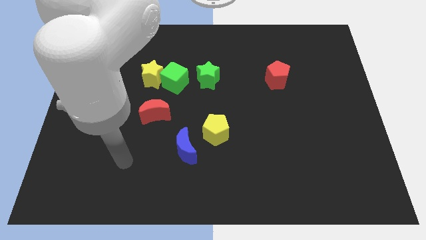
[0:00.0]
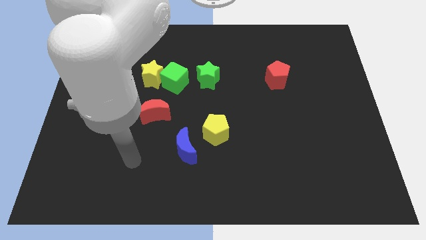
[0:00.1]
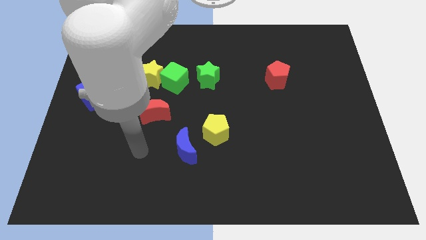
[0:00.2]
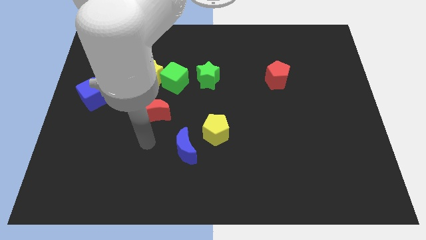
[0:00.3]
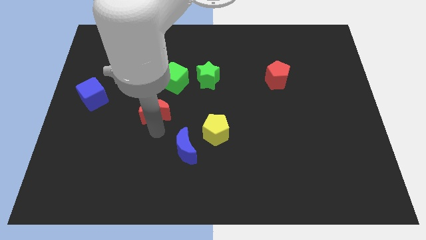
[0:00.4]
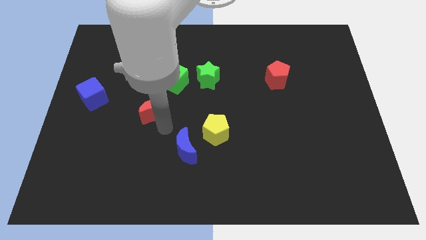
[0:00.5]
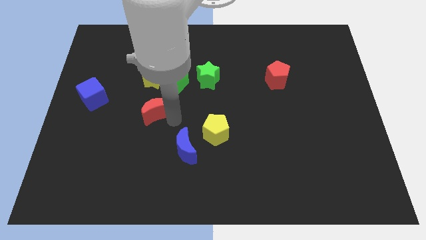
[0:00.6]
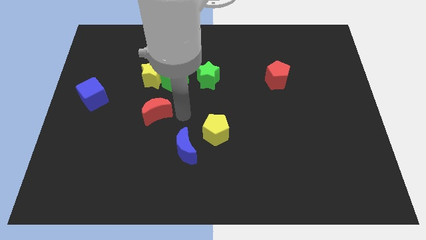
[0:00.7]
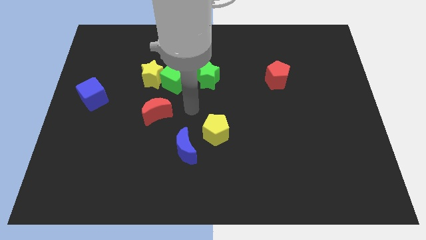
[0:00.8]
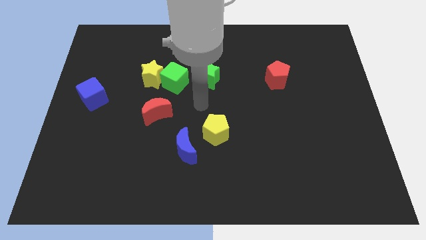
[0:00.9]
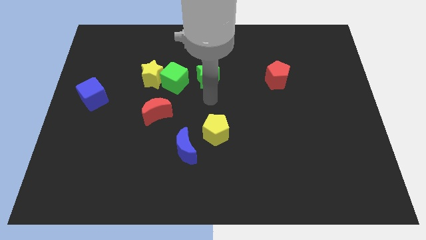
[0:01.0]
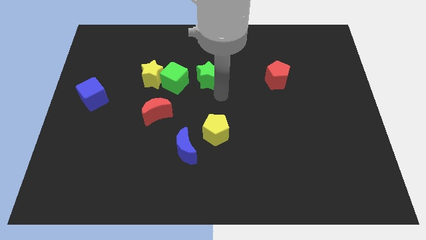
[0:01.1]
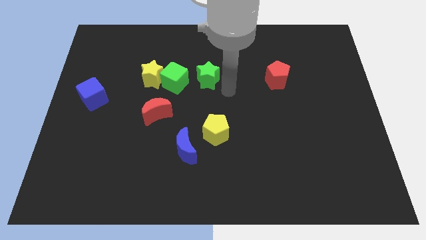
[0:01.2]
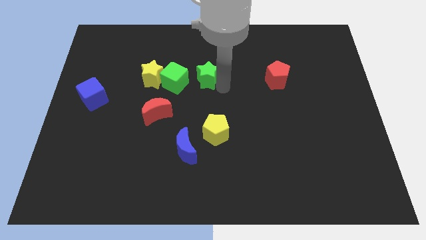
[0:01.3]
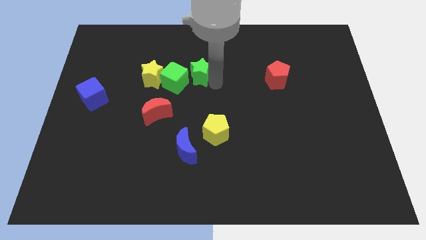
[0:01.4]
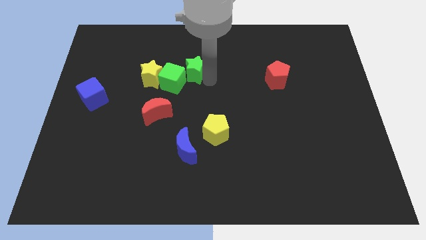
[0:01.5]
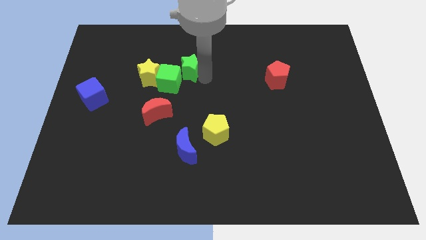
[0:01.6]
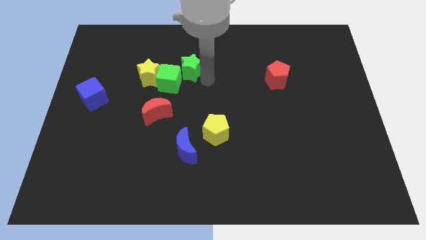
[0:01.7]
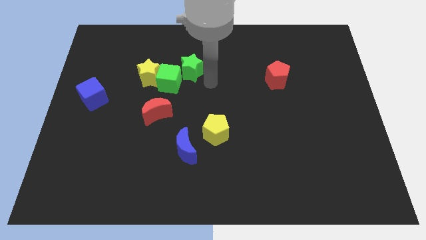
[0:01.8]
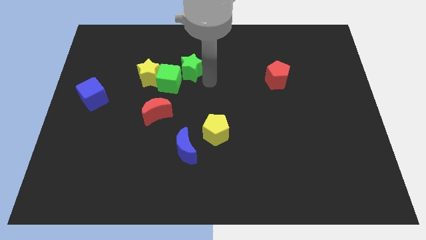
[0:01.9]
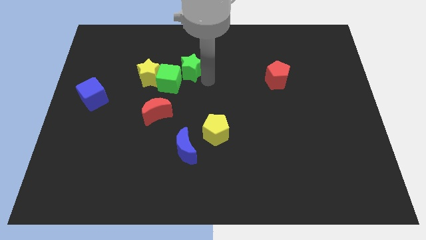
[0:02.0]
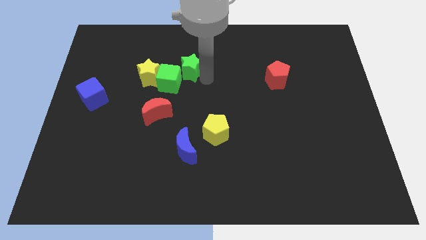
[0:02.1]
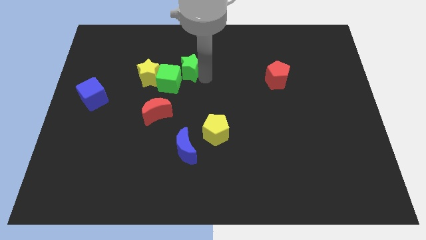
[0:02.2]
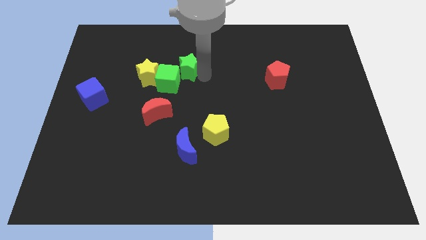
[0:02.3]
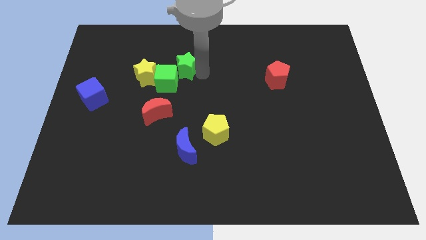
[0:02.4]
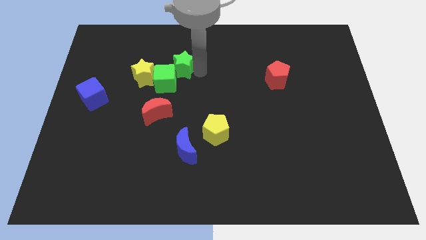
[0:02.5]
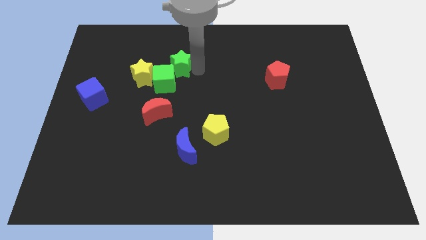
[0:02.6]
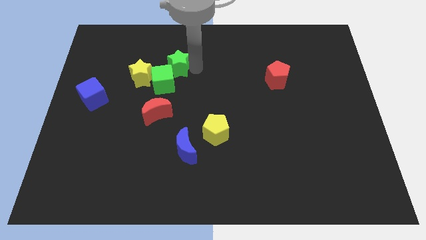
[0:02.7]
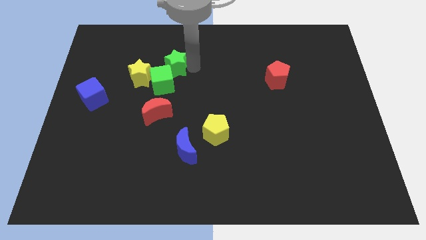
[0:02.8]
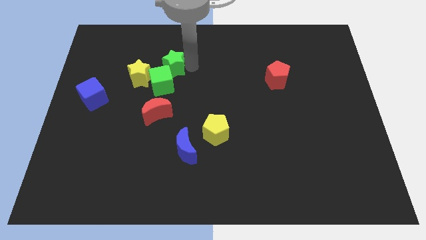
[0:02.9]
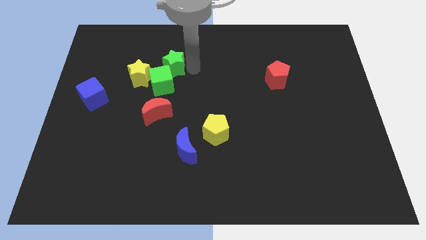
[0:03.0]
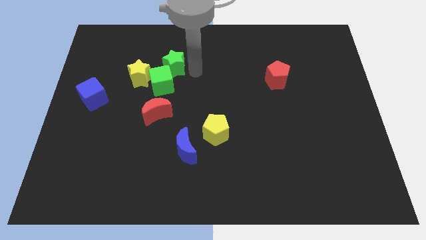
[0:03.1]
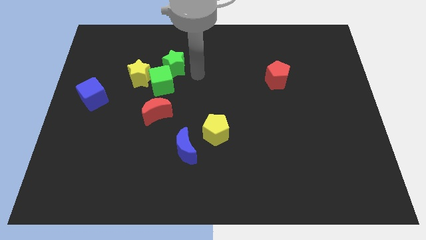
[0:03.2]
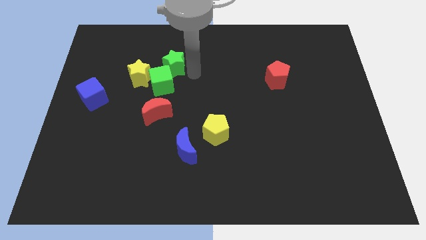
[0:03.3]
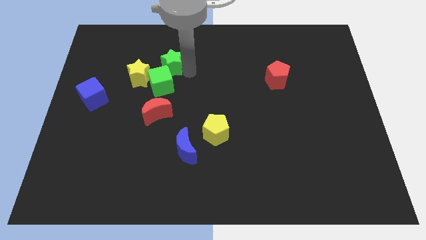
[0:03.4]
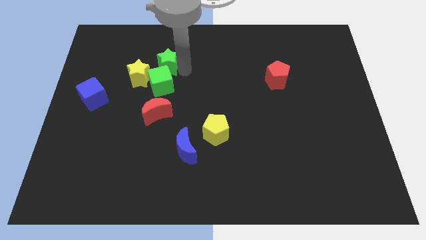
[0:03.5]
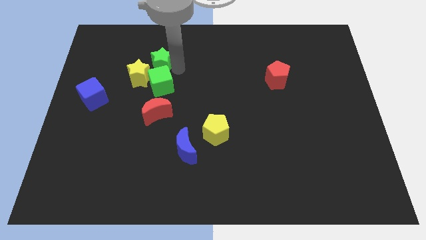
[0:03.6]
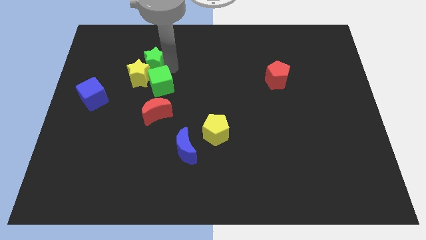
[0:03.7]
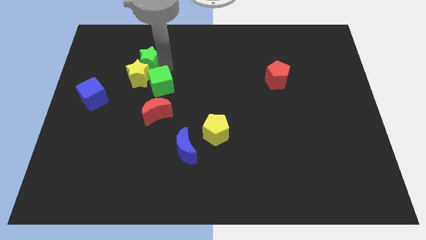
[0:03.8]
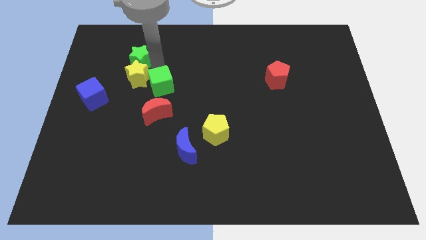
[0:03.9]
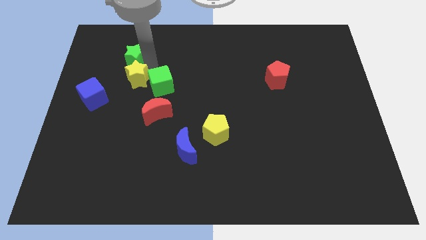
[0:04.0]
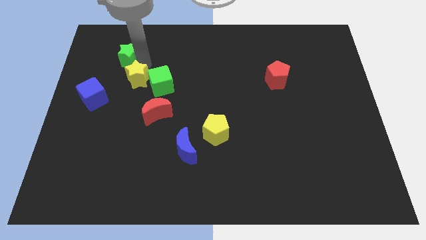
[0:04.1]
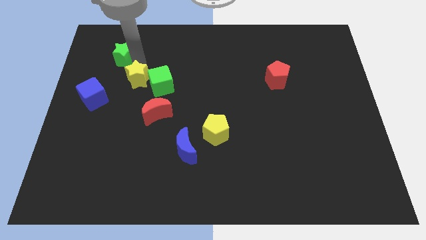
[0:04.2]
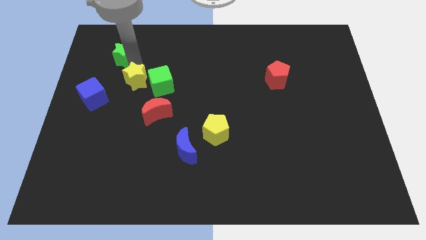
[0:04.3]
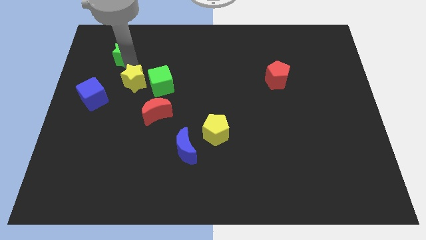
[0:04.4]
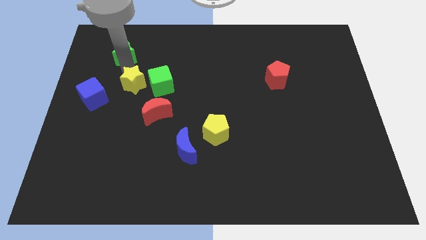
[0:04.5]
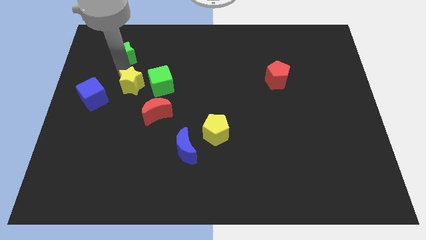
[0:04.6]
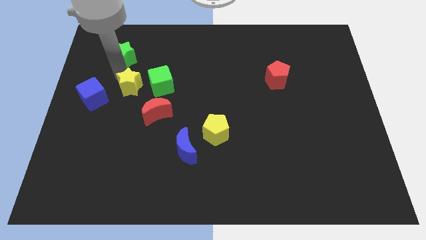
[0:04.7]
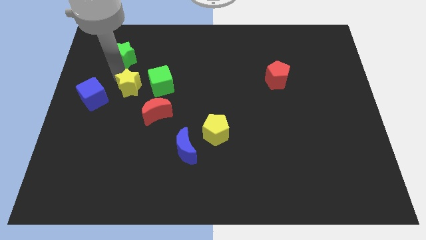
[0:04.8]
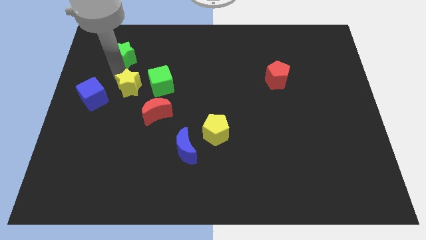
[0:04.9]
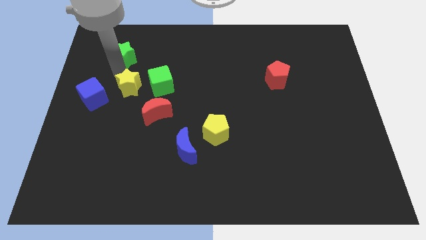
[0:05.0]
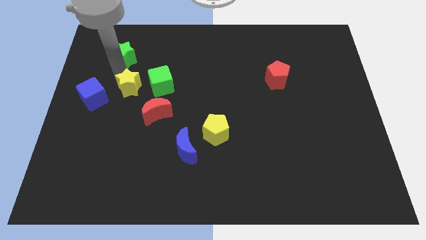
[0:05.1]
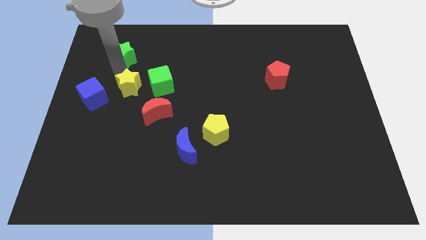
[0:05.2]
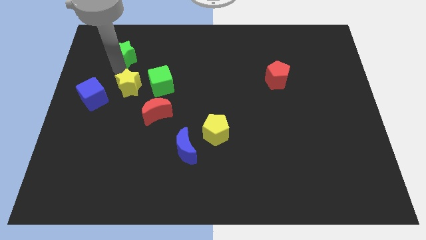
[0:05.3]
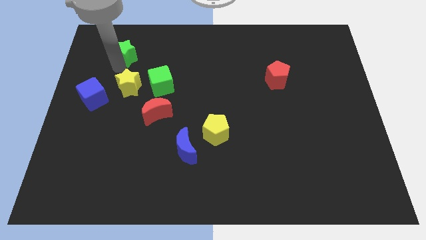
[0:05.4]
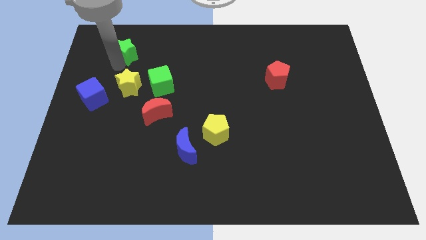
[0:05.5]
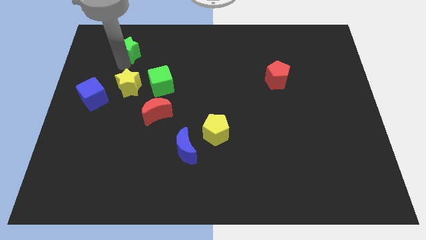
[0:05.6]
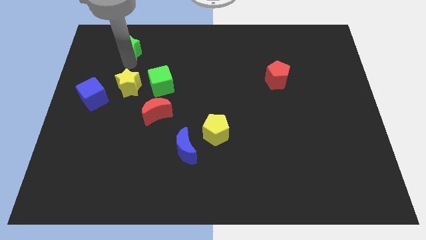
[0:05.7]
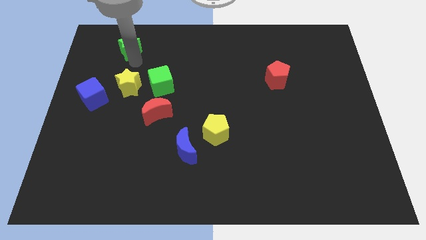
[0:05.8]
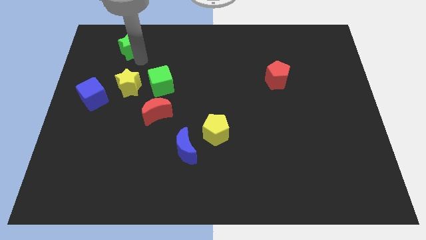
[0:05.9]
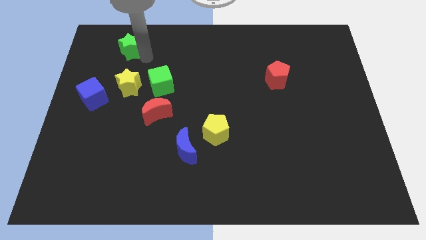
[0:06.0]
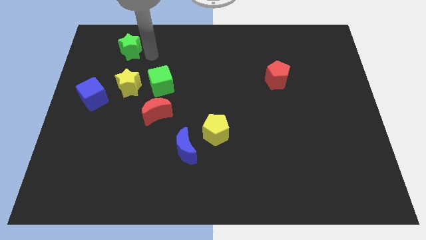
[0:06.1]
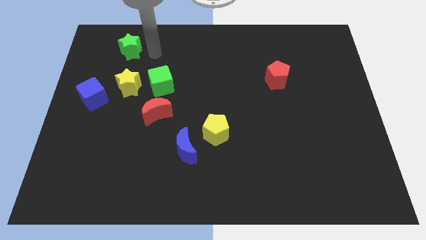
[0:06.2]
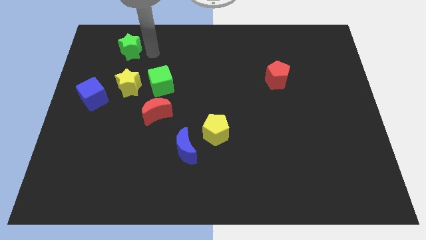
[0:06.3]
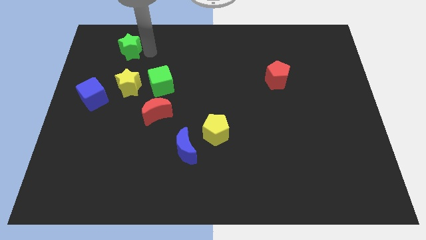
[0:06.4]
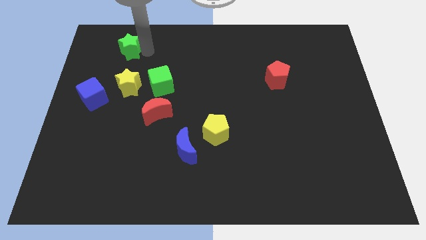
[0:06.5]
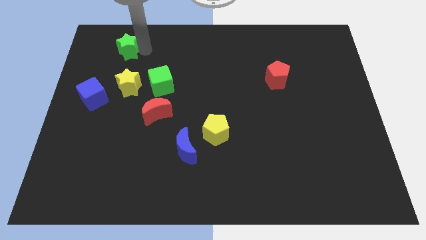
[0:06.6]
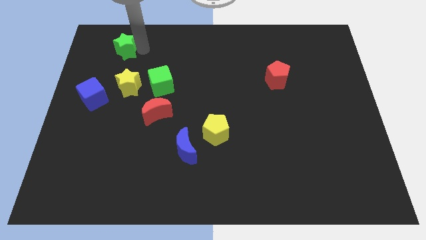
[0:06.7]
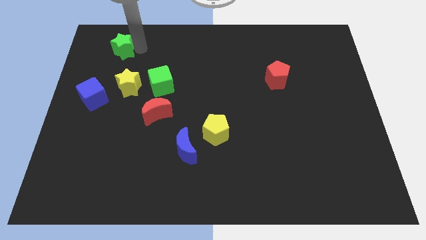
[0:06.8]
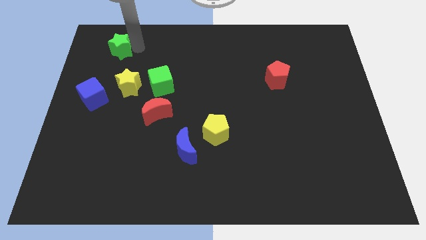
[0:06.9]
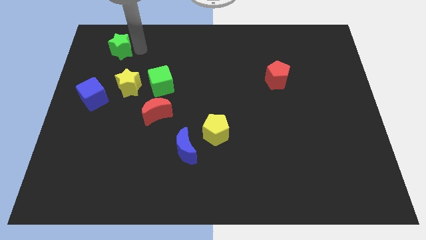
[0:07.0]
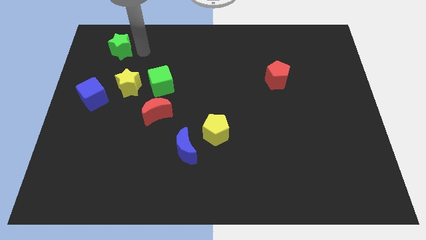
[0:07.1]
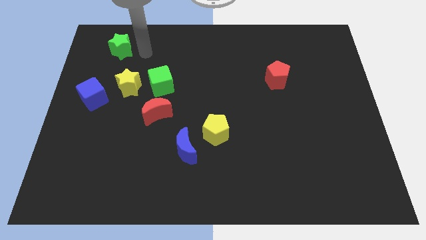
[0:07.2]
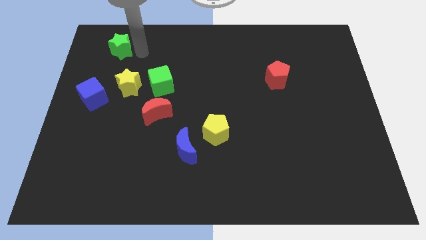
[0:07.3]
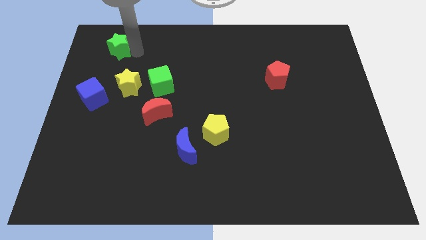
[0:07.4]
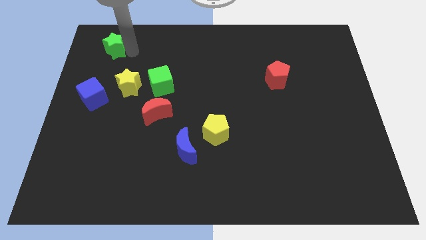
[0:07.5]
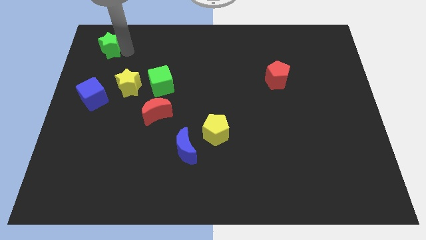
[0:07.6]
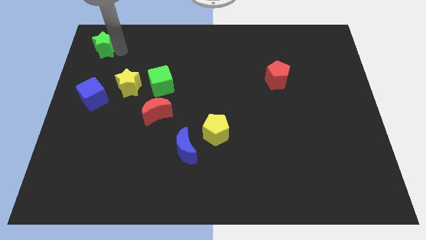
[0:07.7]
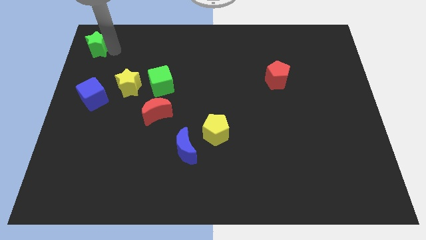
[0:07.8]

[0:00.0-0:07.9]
move the green star to the upper left corner
